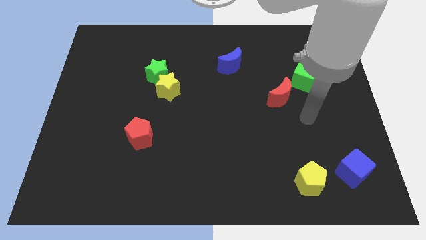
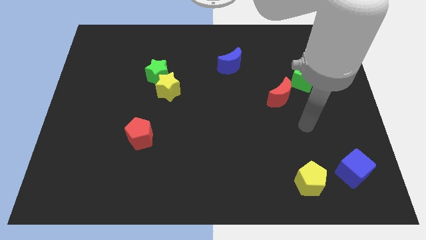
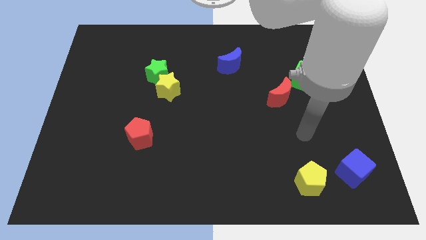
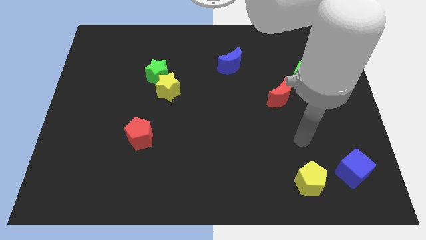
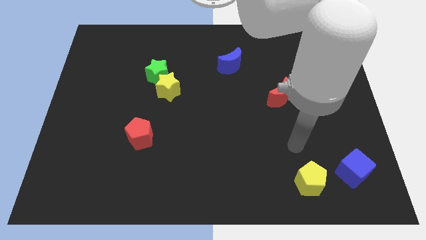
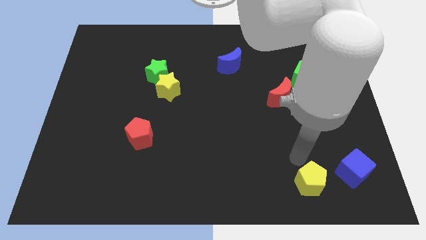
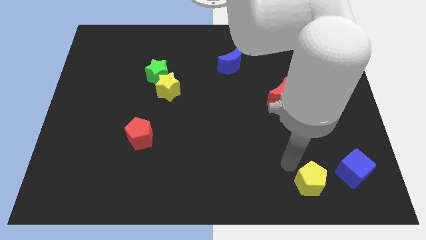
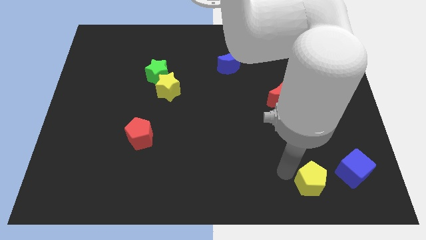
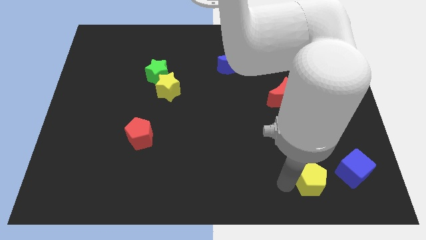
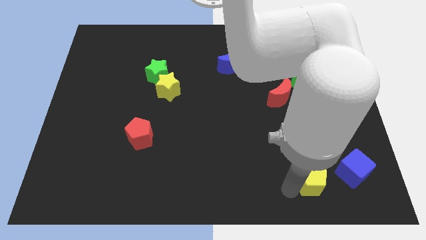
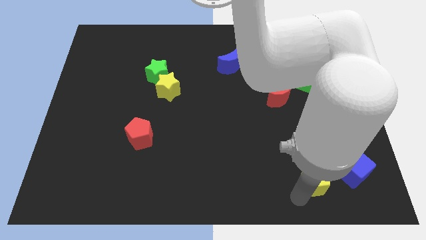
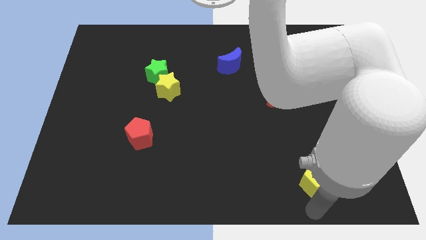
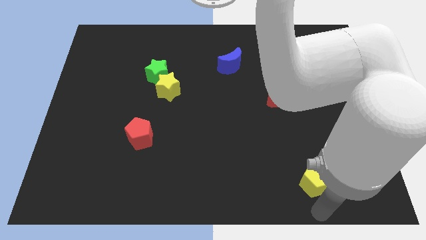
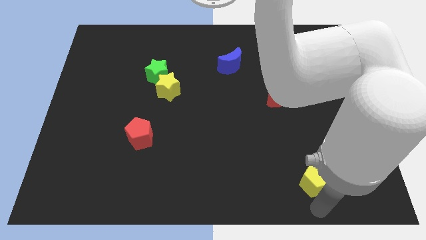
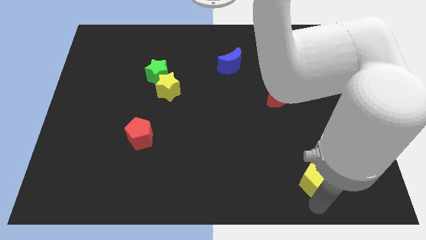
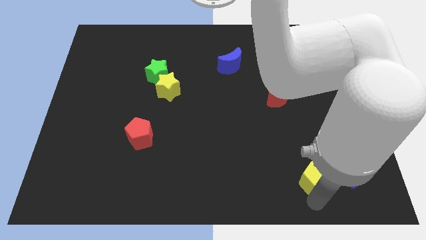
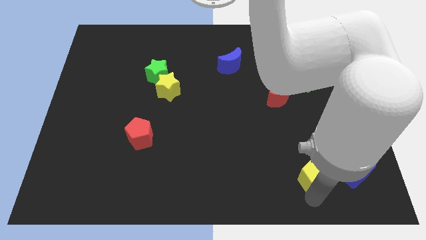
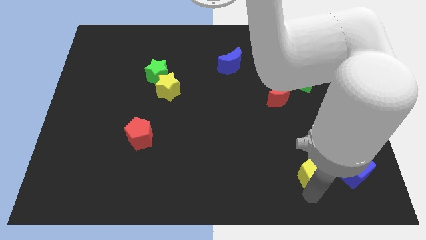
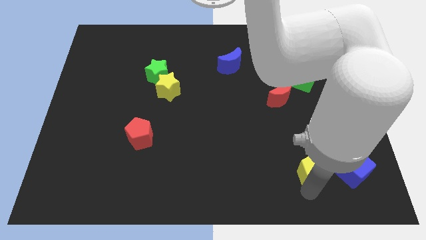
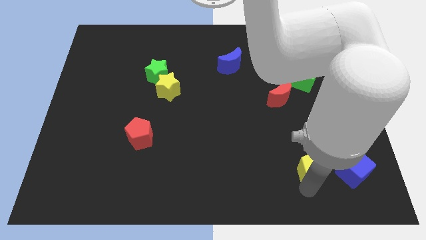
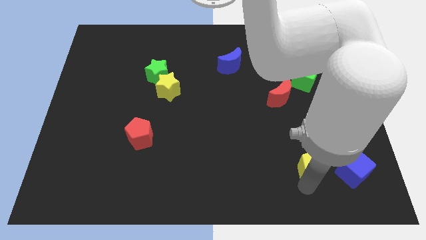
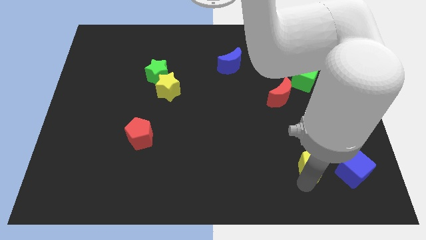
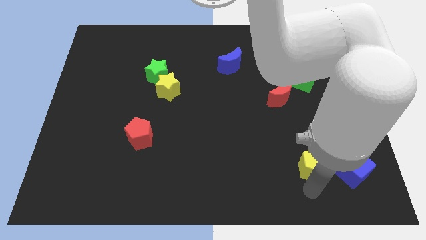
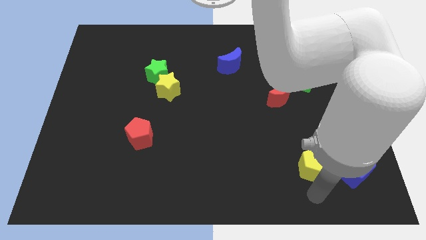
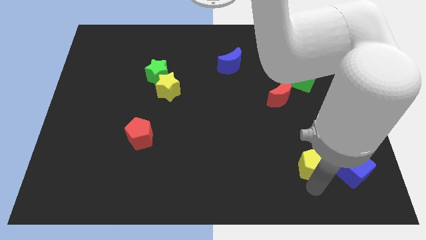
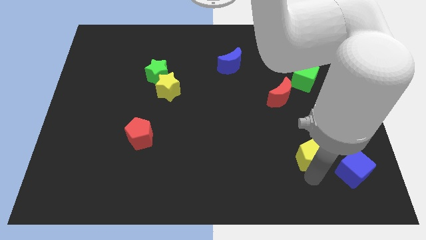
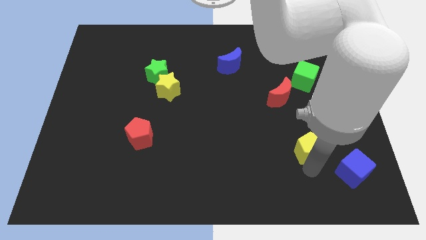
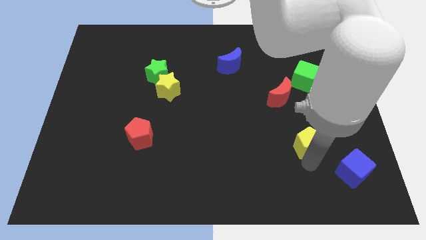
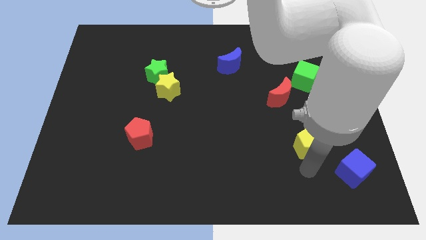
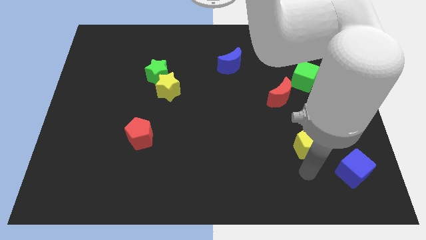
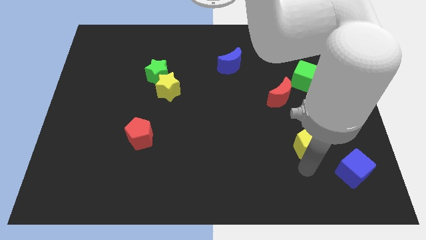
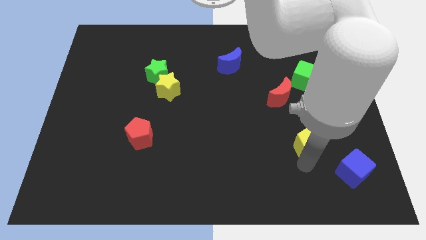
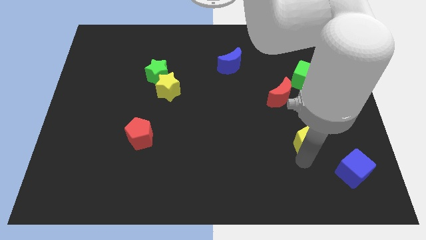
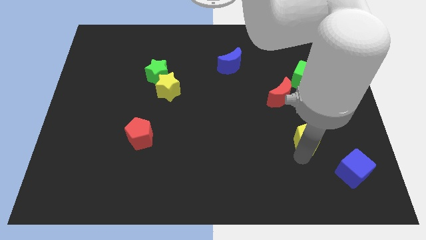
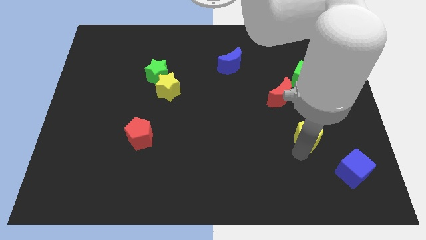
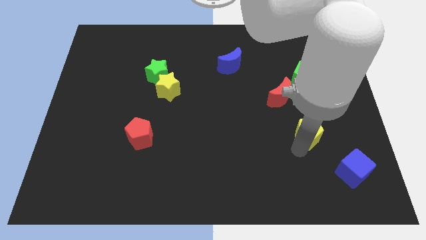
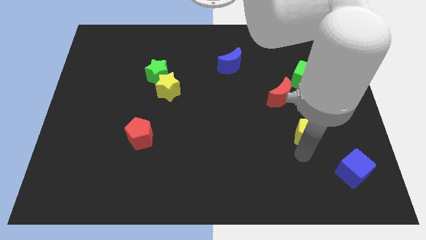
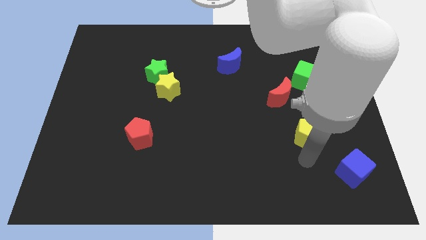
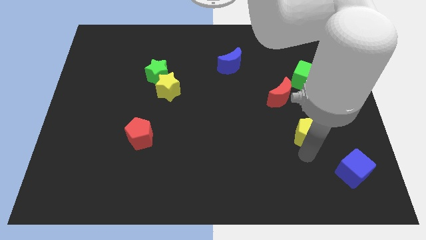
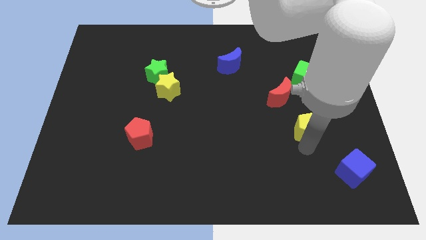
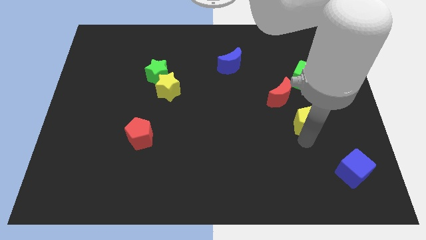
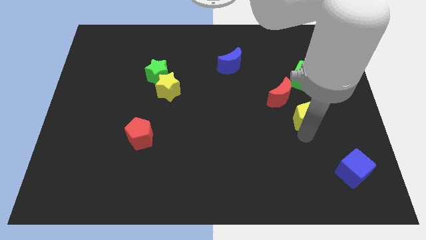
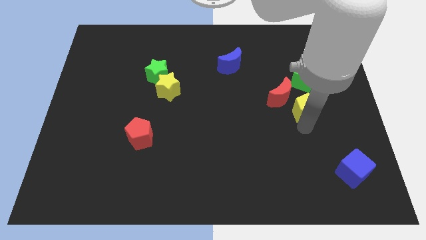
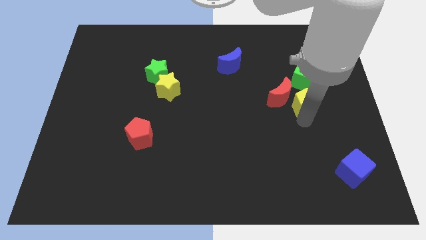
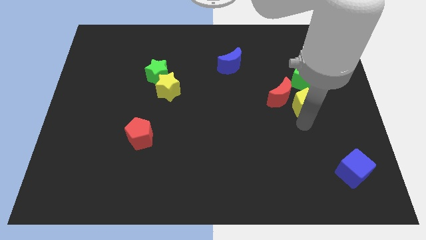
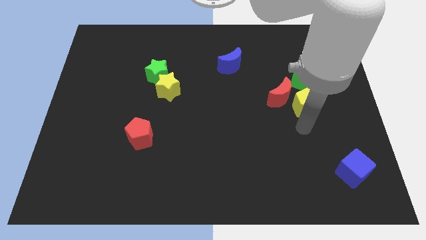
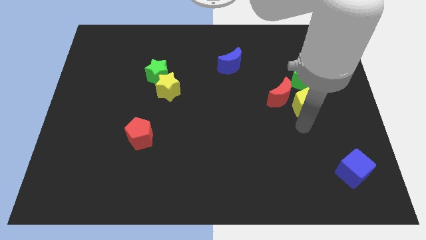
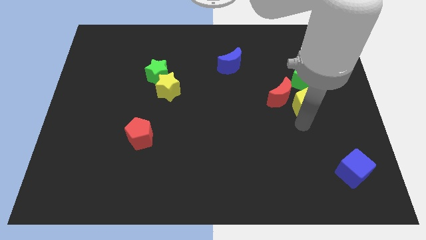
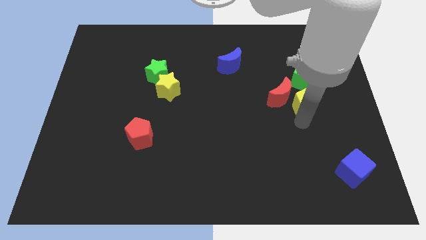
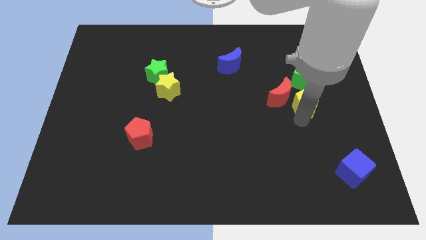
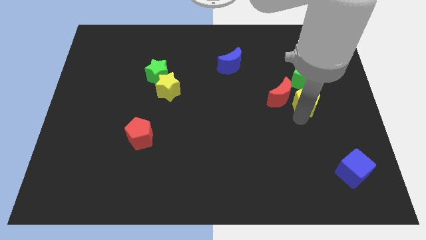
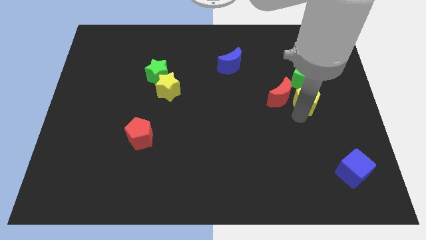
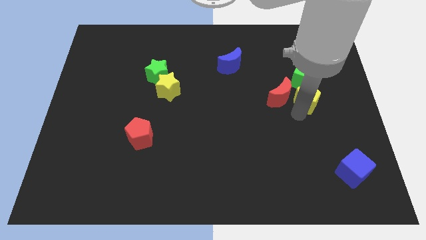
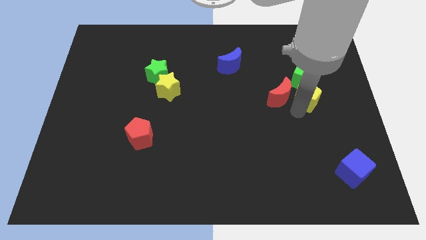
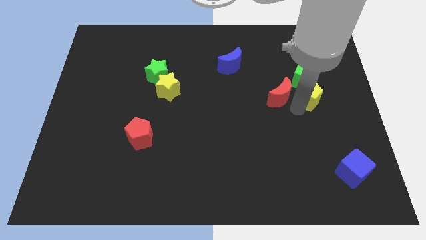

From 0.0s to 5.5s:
move the yellow pentagon next to the green cube
